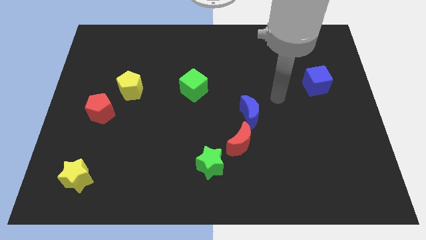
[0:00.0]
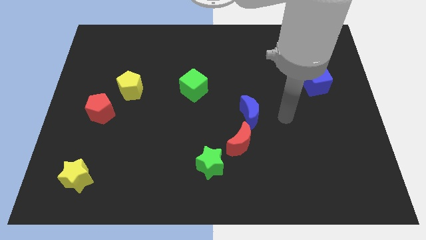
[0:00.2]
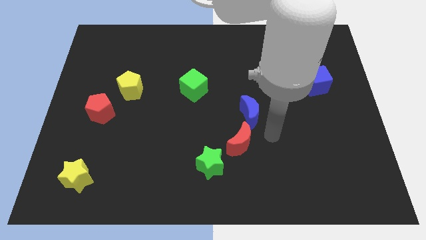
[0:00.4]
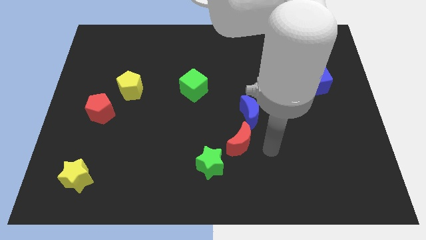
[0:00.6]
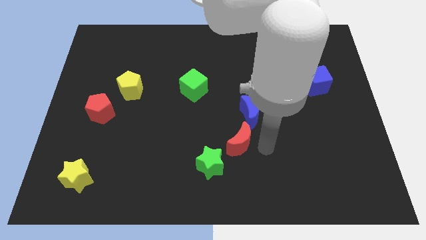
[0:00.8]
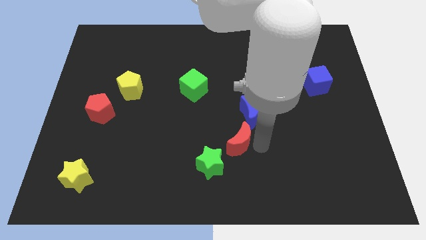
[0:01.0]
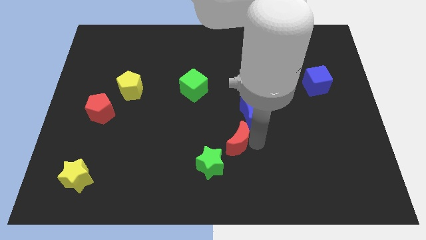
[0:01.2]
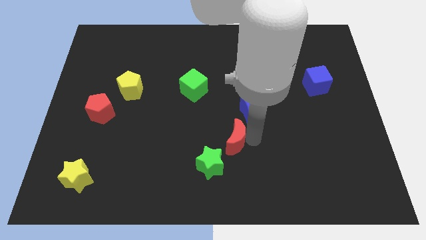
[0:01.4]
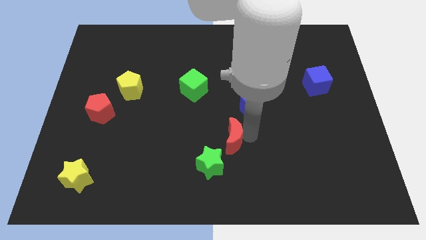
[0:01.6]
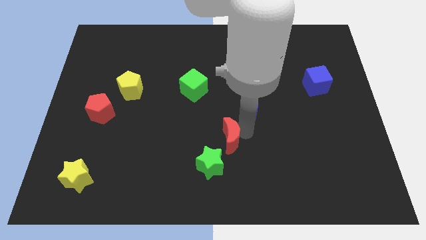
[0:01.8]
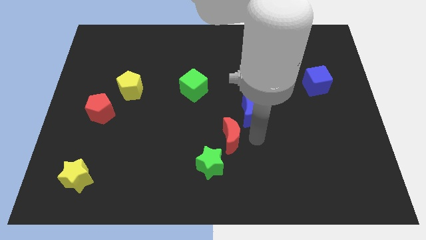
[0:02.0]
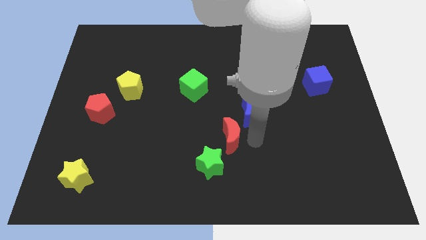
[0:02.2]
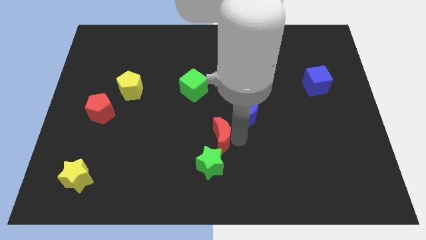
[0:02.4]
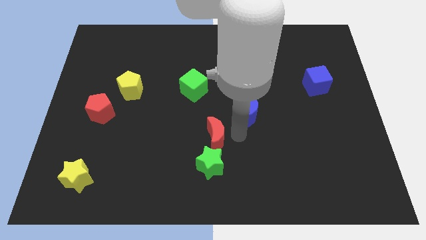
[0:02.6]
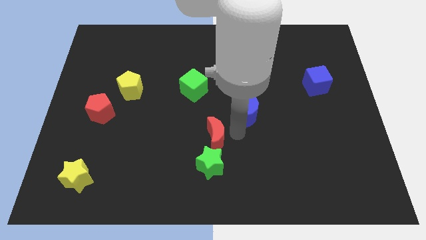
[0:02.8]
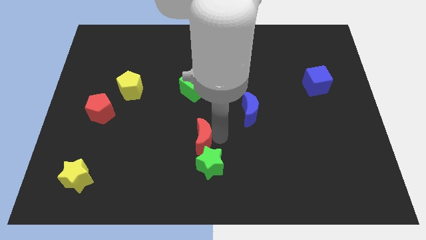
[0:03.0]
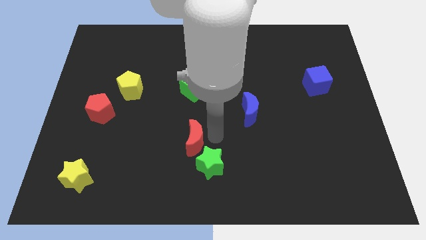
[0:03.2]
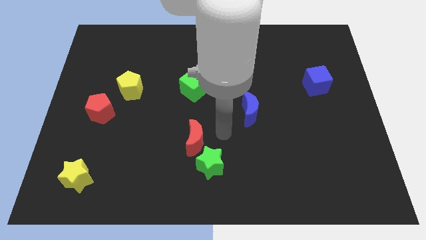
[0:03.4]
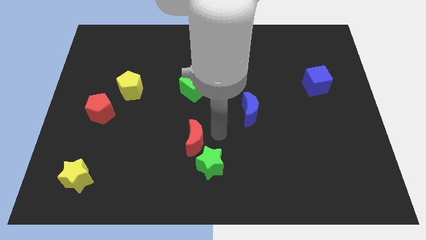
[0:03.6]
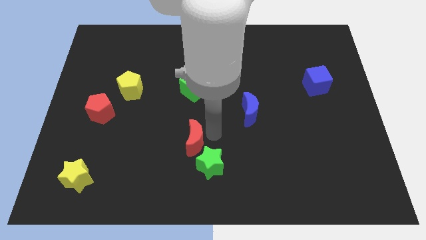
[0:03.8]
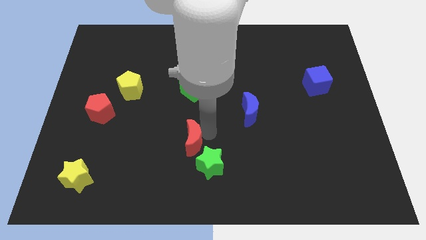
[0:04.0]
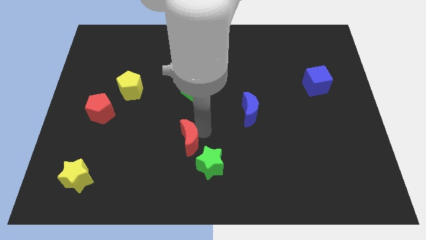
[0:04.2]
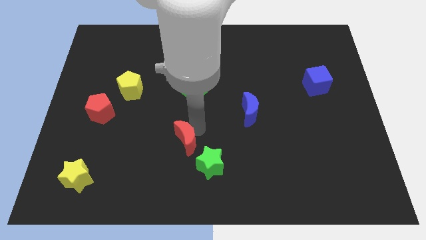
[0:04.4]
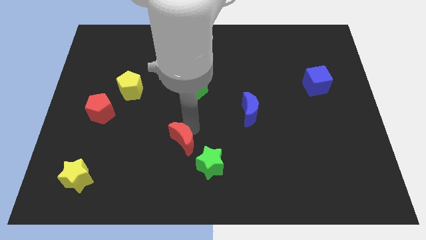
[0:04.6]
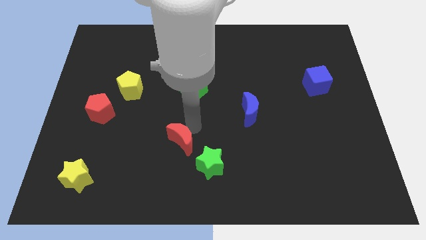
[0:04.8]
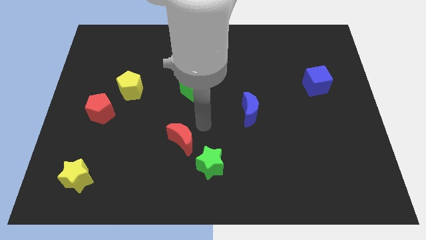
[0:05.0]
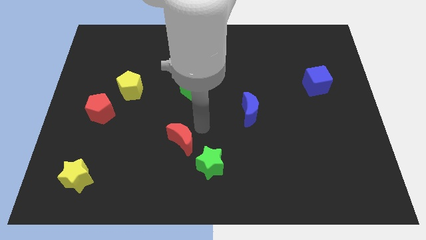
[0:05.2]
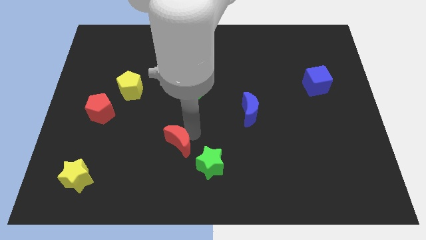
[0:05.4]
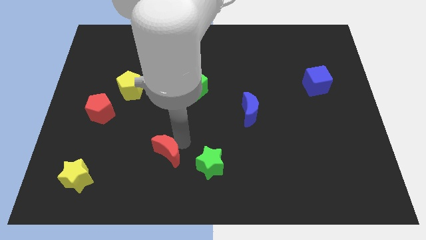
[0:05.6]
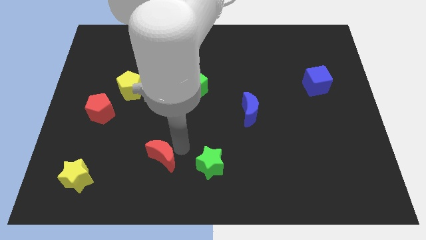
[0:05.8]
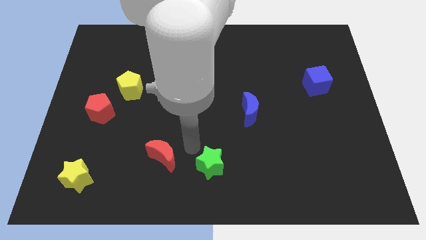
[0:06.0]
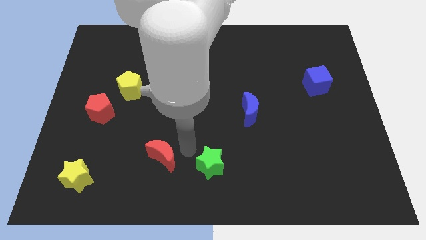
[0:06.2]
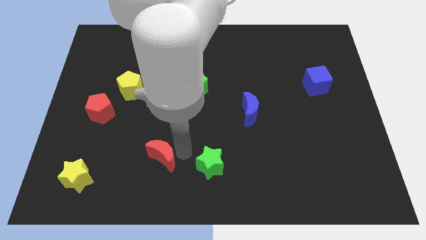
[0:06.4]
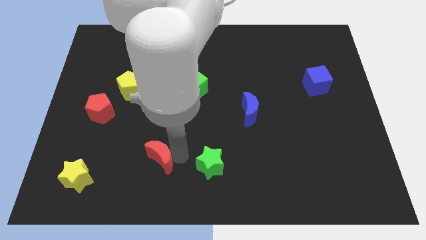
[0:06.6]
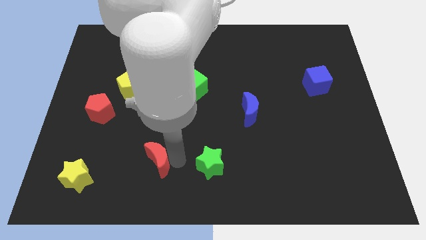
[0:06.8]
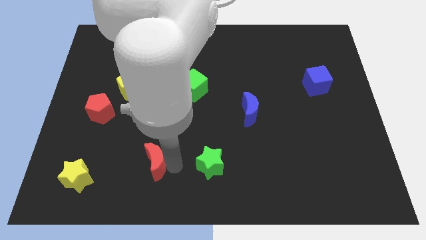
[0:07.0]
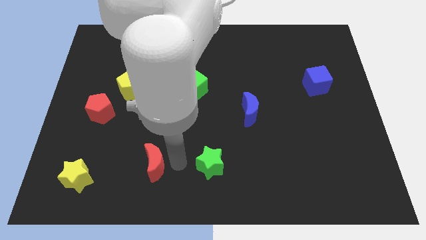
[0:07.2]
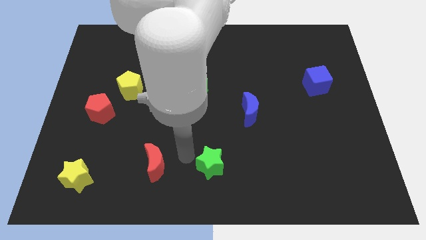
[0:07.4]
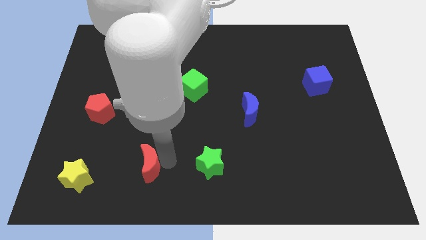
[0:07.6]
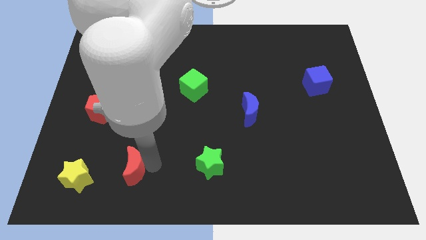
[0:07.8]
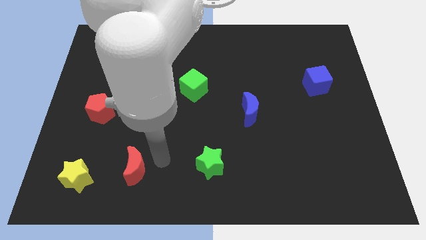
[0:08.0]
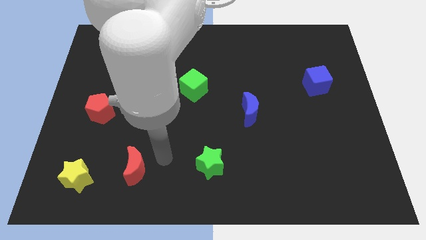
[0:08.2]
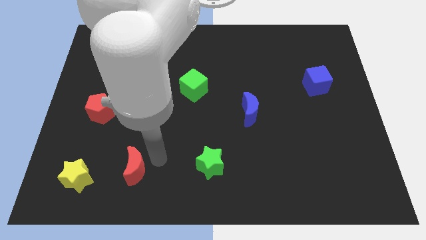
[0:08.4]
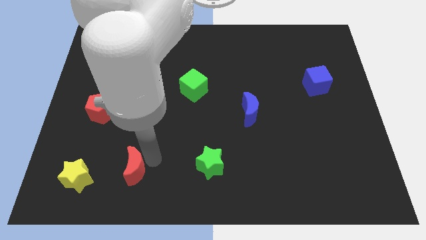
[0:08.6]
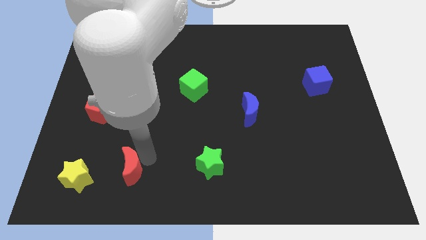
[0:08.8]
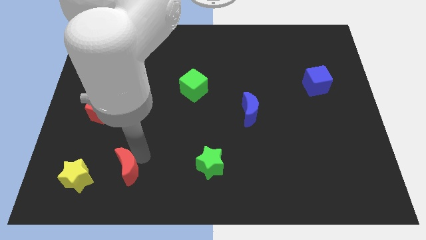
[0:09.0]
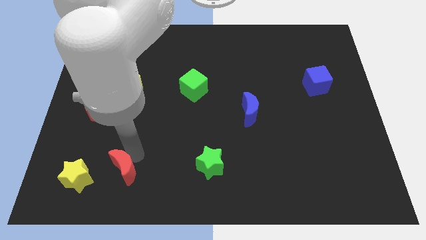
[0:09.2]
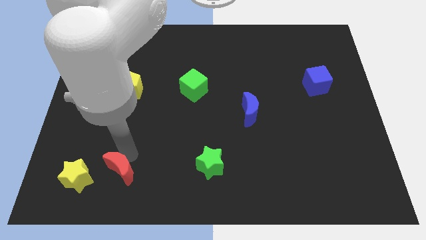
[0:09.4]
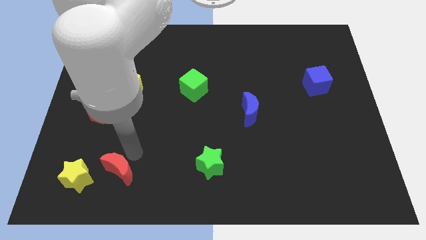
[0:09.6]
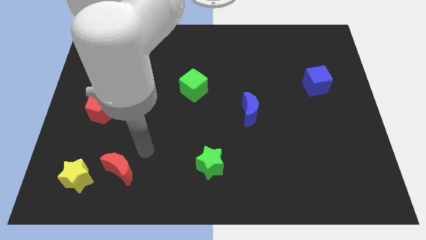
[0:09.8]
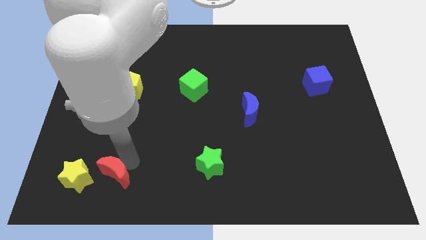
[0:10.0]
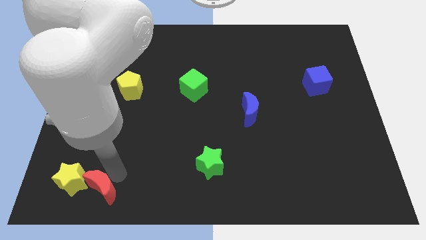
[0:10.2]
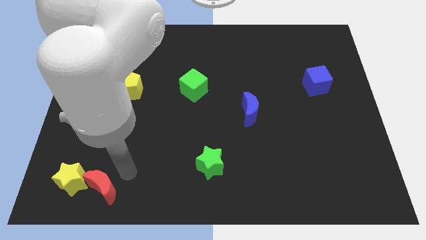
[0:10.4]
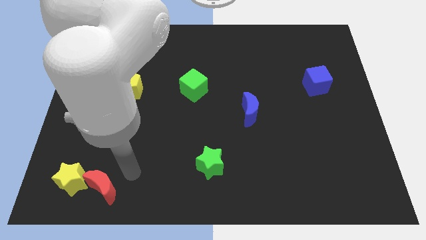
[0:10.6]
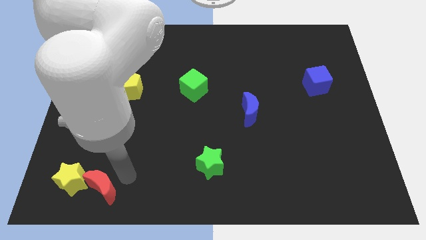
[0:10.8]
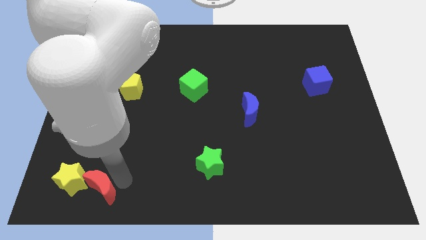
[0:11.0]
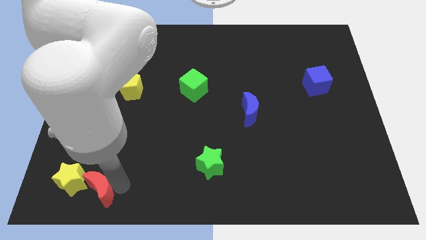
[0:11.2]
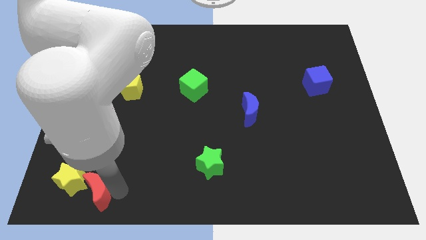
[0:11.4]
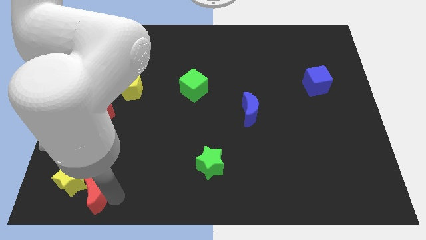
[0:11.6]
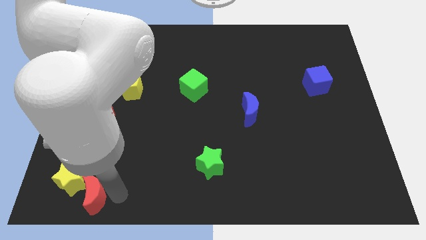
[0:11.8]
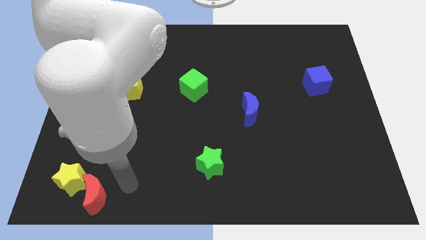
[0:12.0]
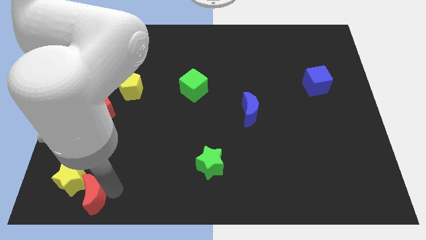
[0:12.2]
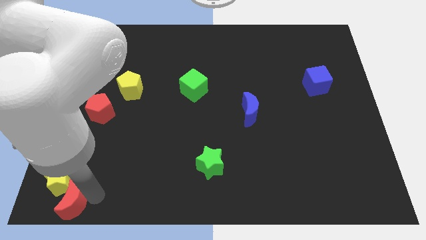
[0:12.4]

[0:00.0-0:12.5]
put the red moon to the bottom left of the board
